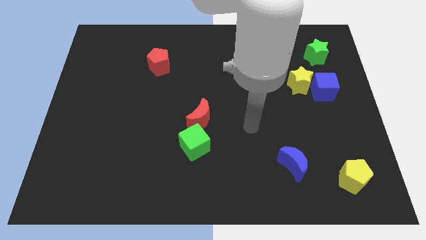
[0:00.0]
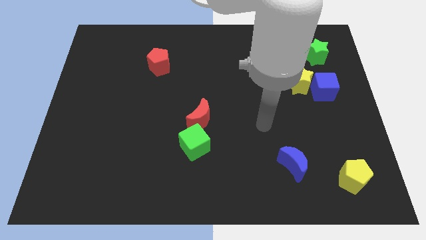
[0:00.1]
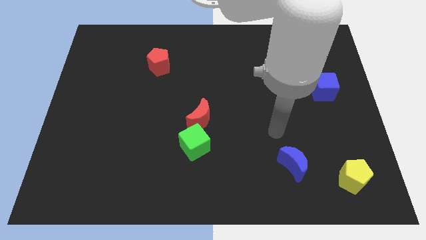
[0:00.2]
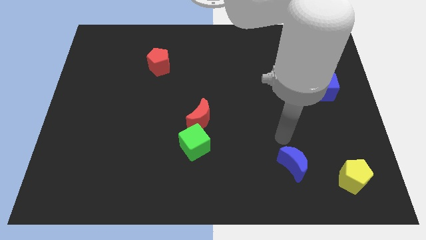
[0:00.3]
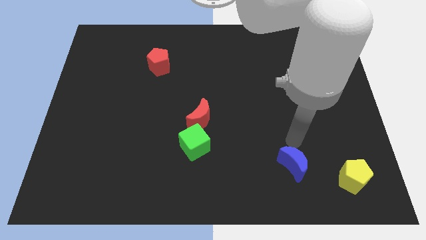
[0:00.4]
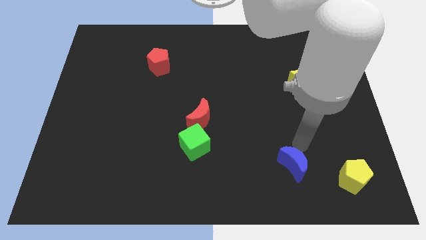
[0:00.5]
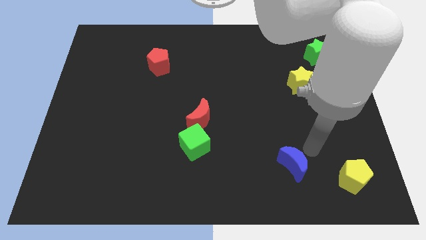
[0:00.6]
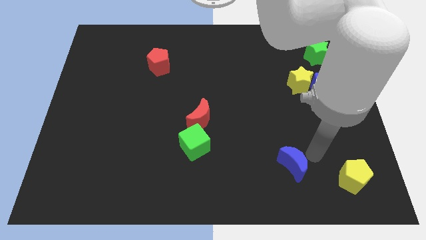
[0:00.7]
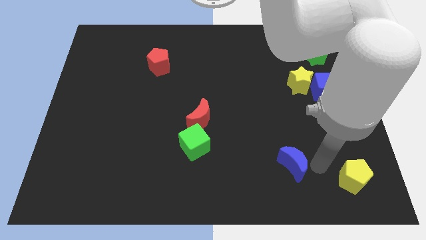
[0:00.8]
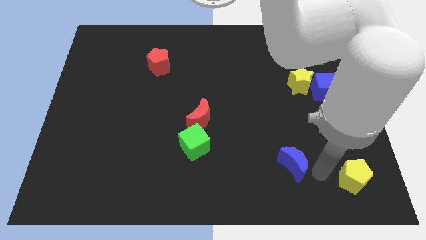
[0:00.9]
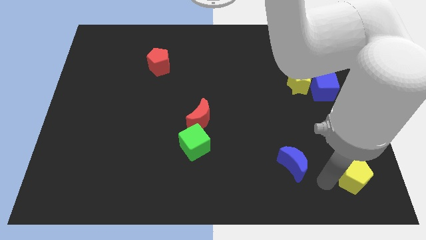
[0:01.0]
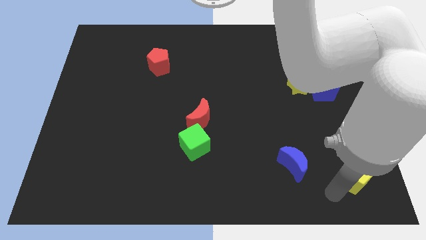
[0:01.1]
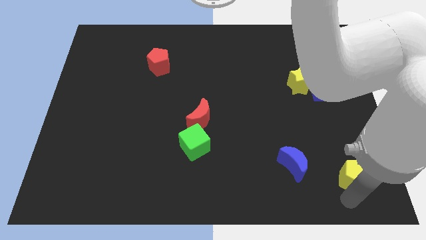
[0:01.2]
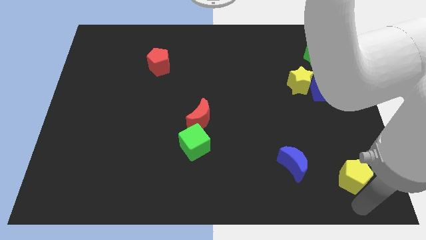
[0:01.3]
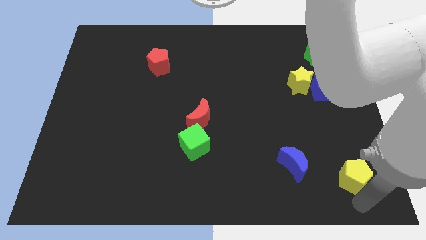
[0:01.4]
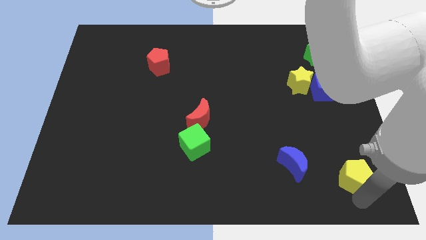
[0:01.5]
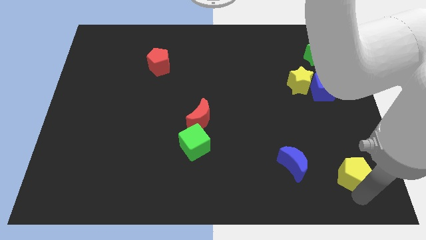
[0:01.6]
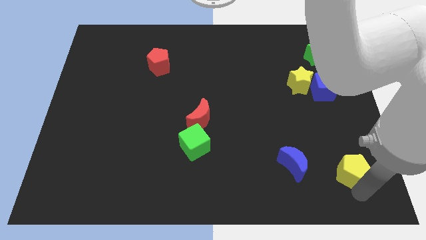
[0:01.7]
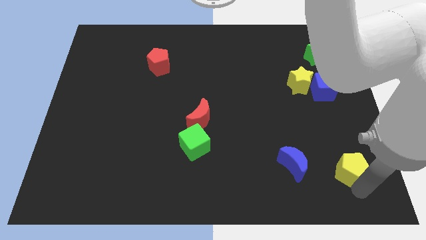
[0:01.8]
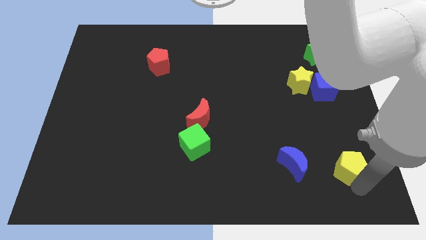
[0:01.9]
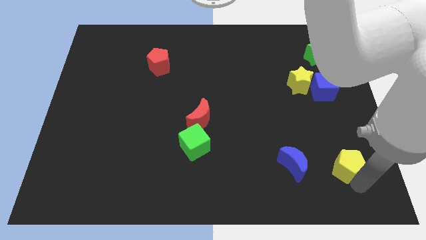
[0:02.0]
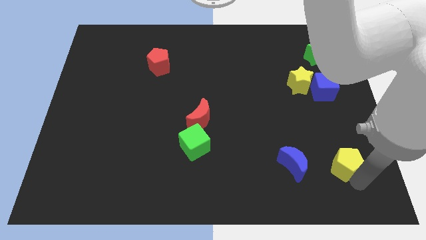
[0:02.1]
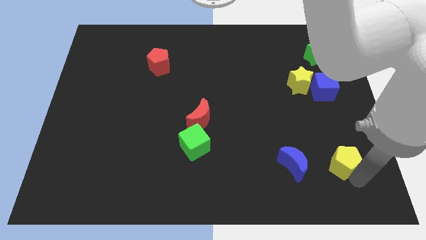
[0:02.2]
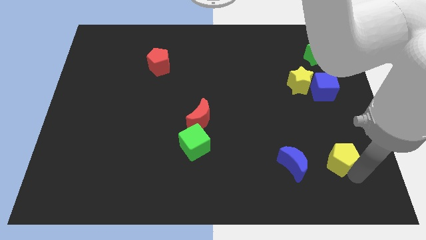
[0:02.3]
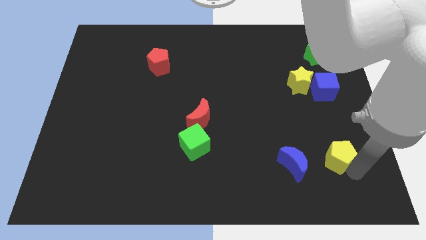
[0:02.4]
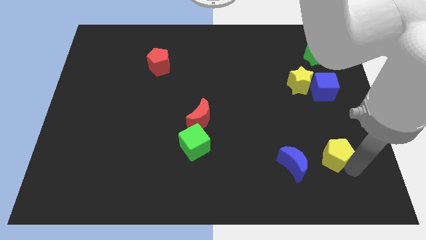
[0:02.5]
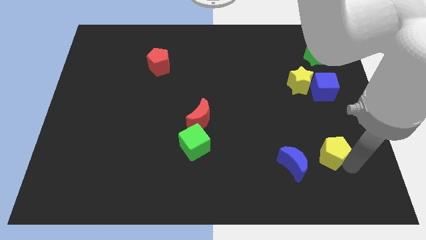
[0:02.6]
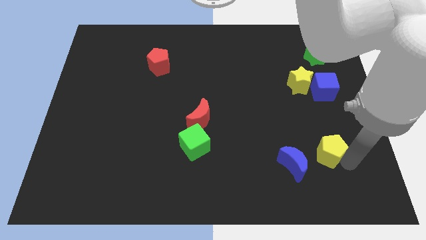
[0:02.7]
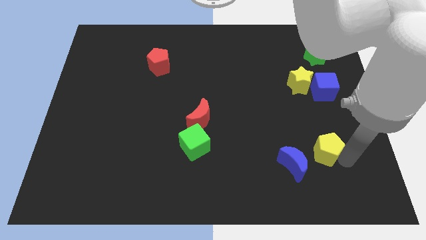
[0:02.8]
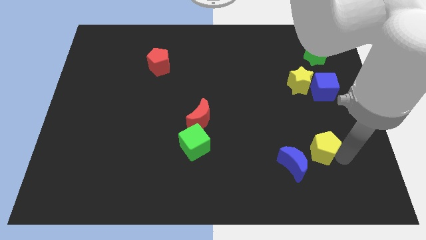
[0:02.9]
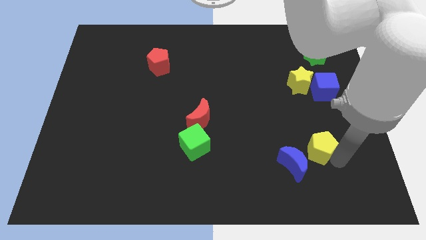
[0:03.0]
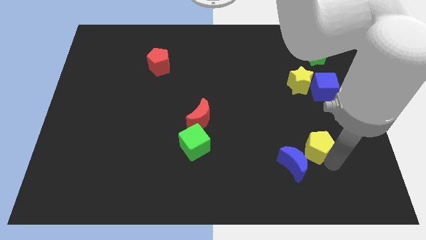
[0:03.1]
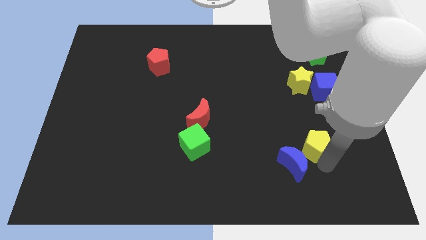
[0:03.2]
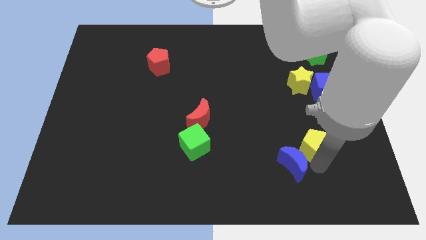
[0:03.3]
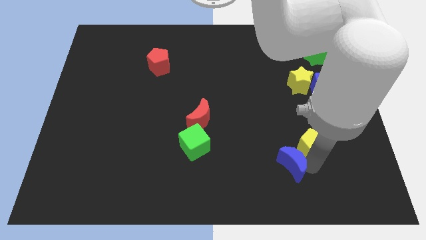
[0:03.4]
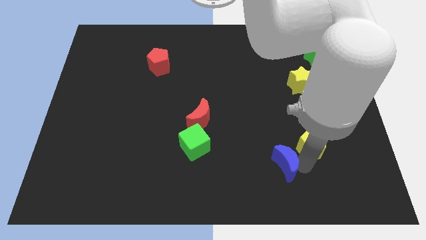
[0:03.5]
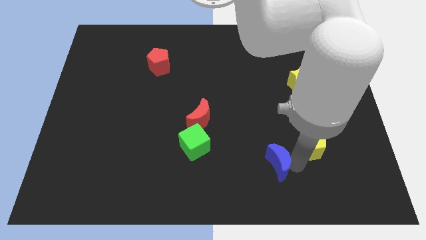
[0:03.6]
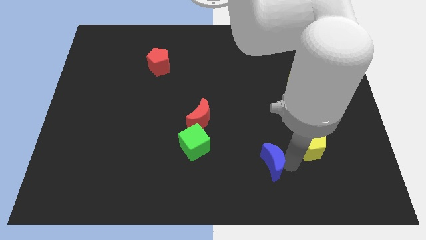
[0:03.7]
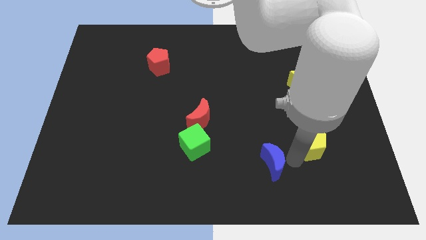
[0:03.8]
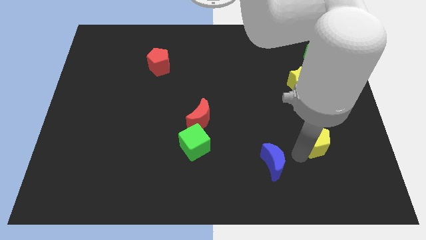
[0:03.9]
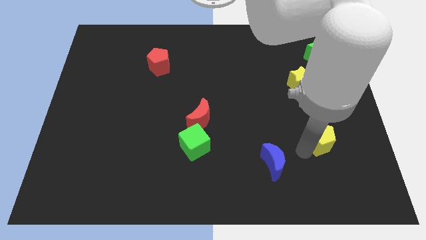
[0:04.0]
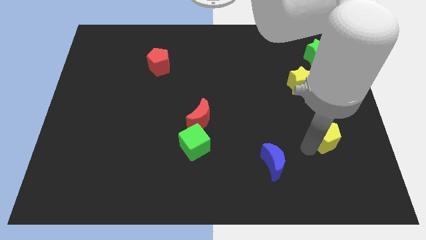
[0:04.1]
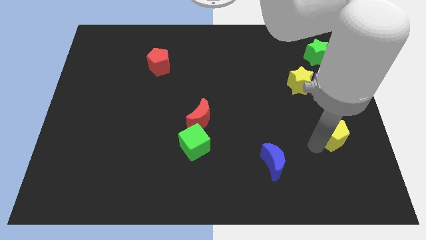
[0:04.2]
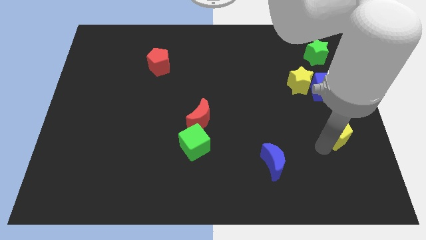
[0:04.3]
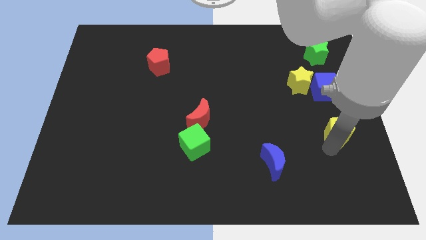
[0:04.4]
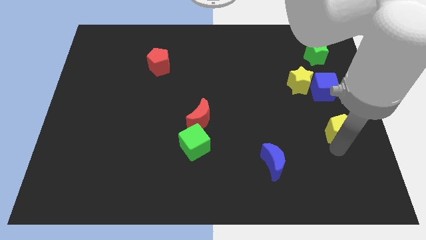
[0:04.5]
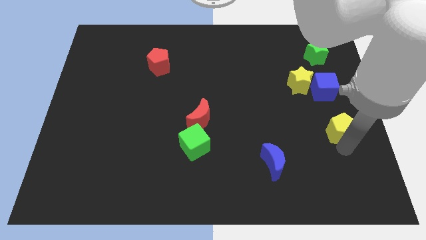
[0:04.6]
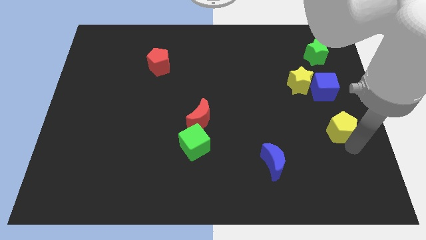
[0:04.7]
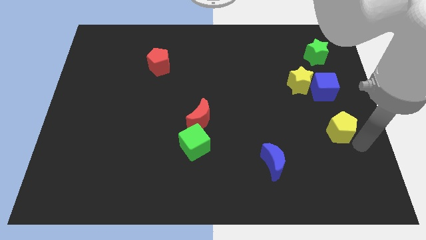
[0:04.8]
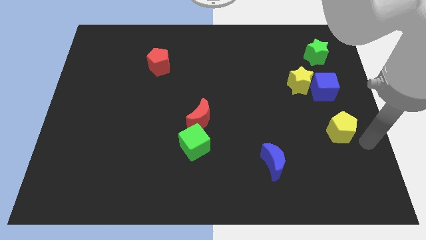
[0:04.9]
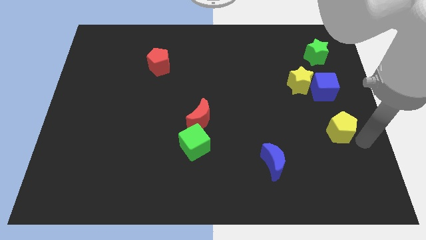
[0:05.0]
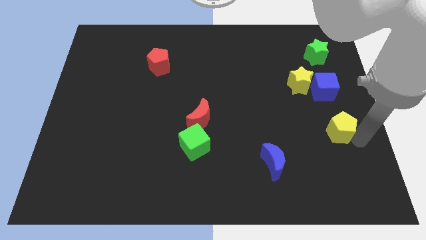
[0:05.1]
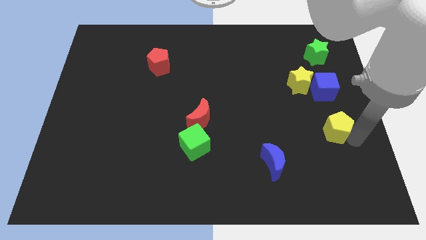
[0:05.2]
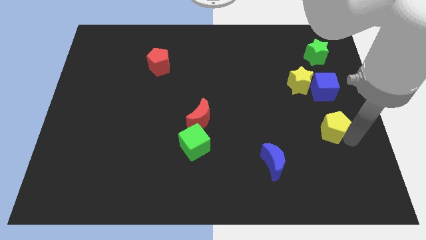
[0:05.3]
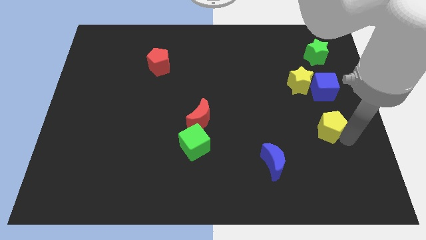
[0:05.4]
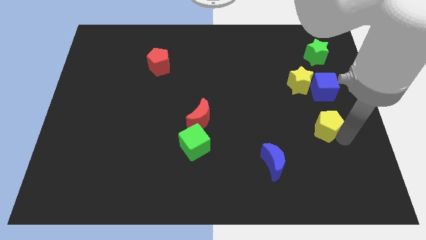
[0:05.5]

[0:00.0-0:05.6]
move the yellow pentagon below the yellow star
